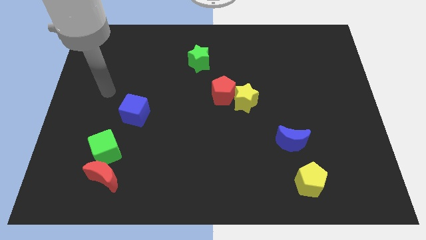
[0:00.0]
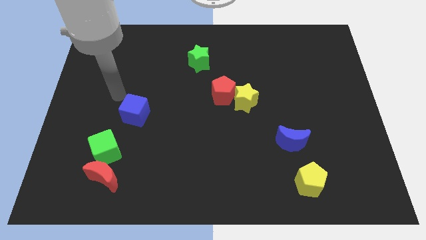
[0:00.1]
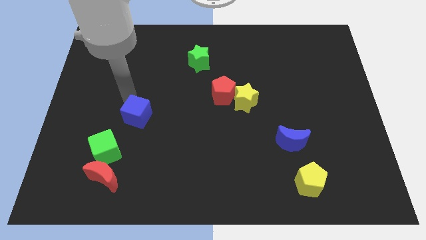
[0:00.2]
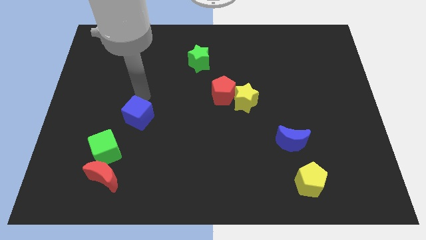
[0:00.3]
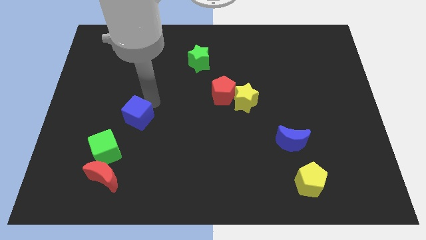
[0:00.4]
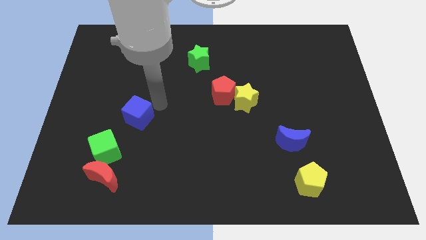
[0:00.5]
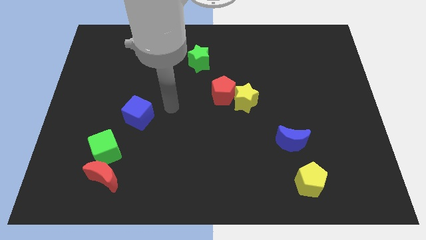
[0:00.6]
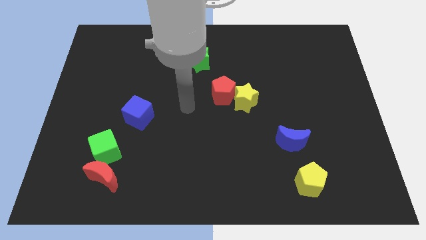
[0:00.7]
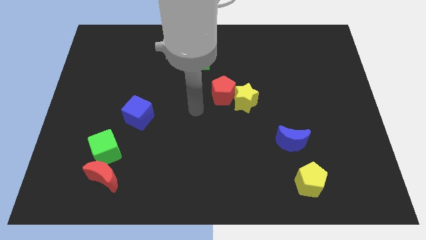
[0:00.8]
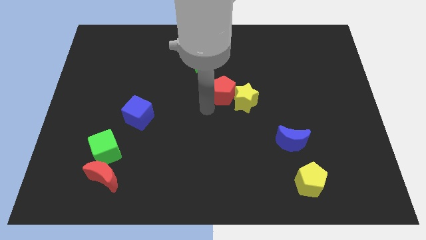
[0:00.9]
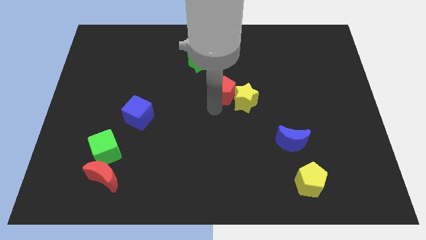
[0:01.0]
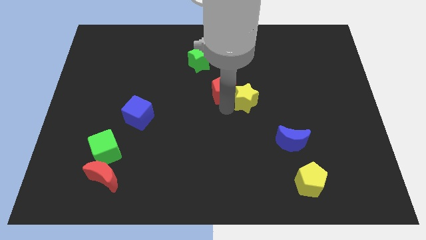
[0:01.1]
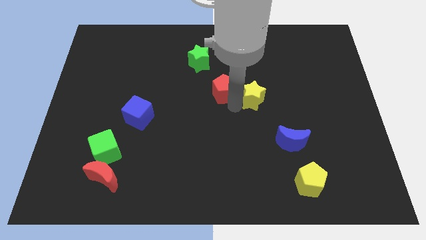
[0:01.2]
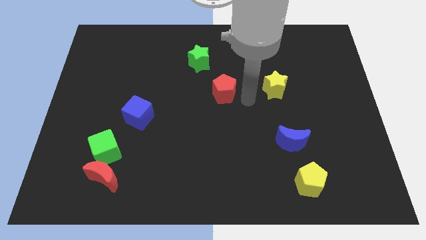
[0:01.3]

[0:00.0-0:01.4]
separate the red pentagon from the yellow star

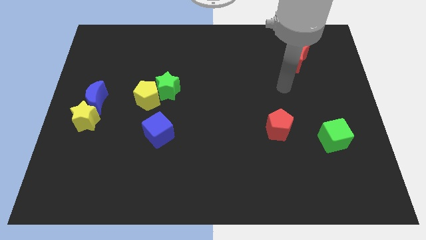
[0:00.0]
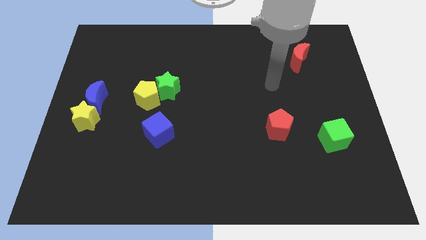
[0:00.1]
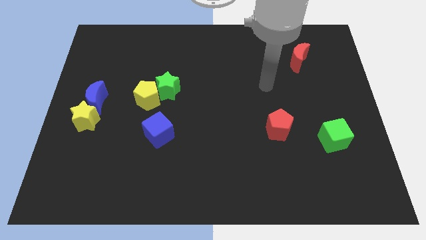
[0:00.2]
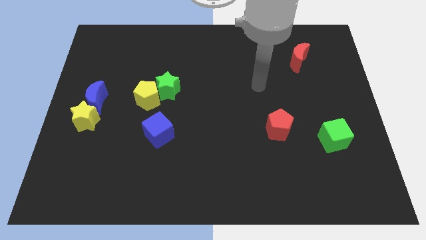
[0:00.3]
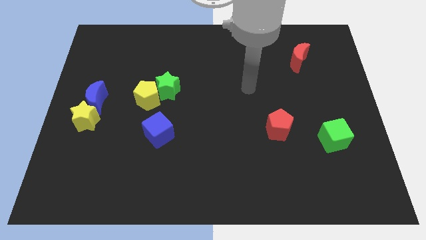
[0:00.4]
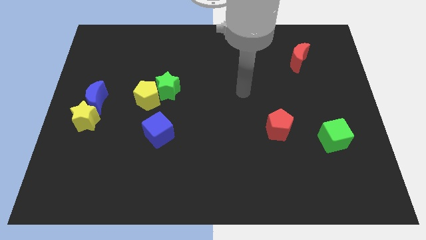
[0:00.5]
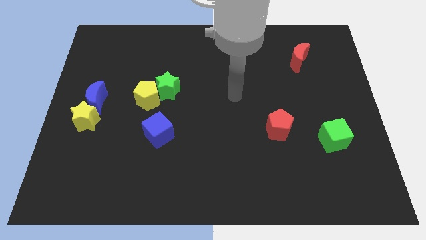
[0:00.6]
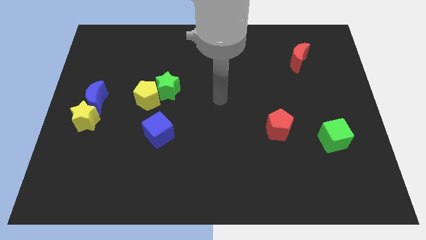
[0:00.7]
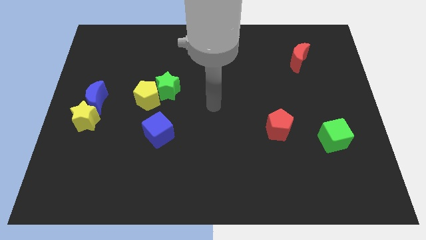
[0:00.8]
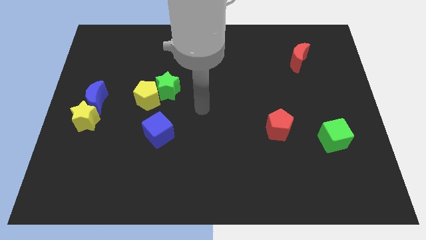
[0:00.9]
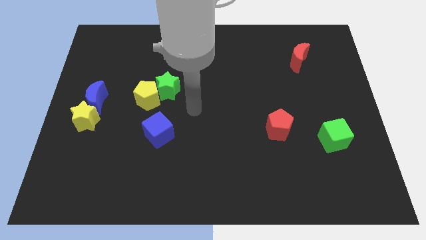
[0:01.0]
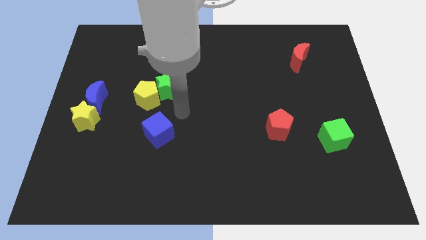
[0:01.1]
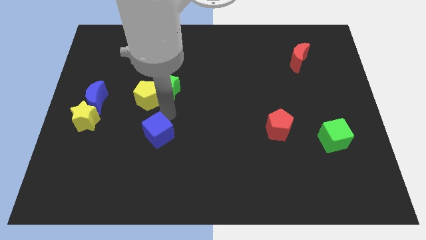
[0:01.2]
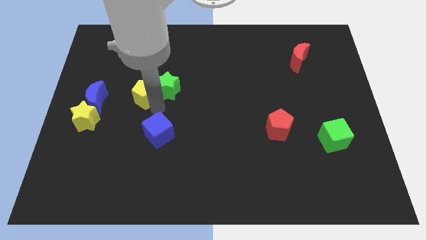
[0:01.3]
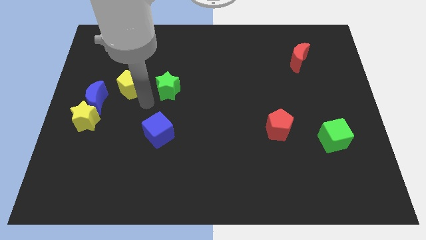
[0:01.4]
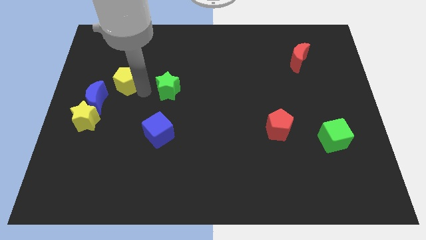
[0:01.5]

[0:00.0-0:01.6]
separate the green star from the yellow pentagon

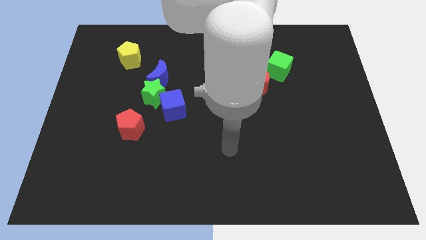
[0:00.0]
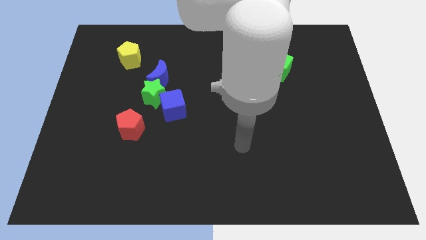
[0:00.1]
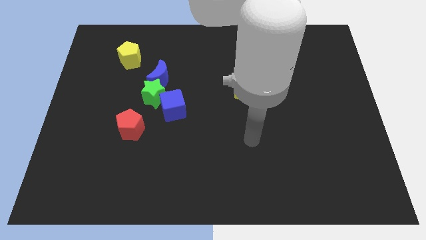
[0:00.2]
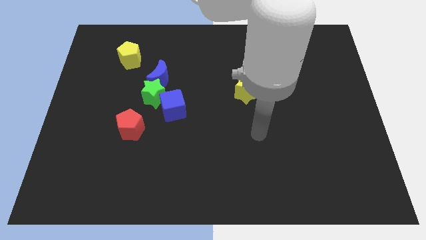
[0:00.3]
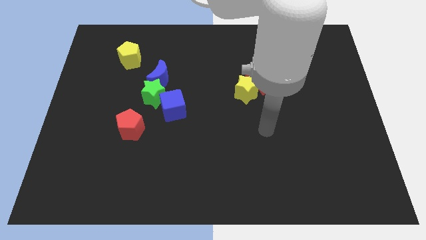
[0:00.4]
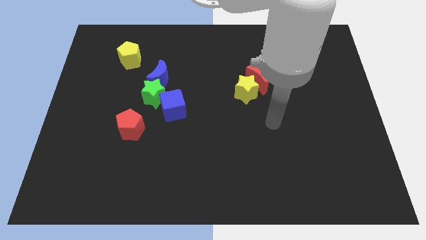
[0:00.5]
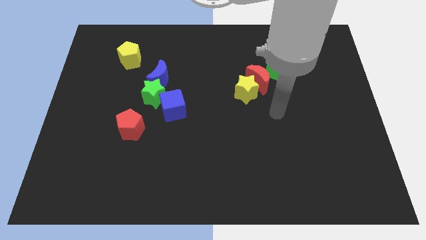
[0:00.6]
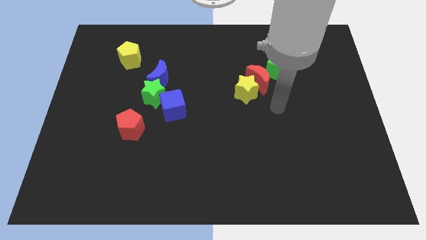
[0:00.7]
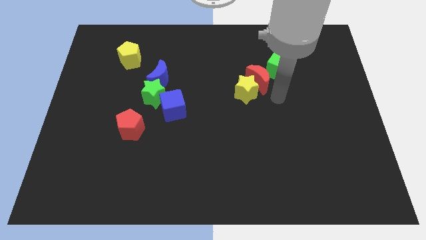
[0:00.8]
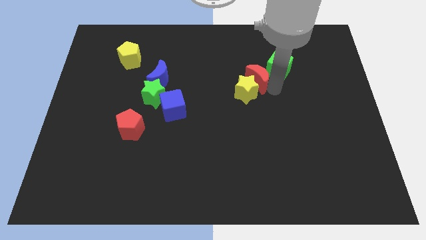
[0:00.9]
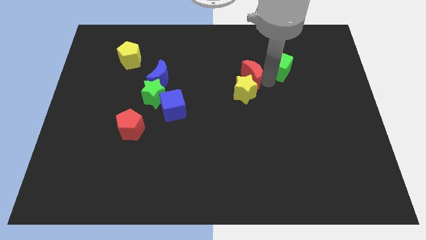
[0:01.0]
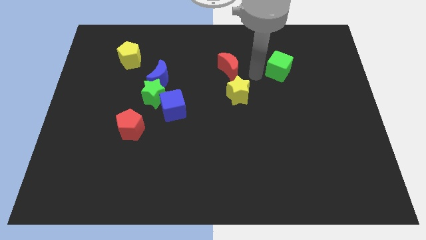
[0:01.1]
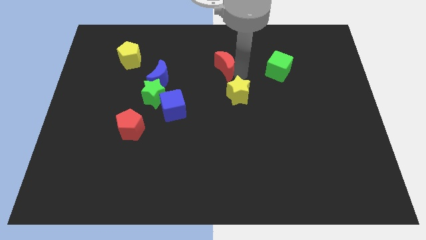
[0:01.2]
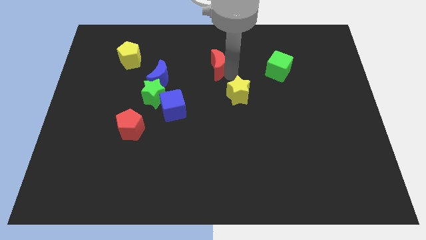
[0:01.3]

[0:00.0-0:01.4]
pull the yellow star apart from the red moon

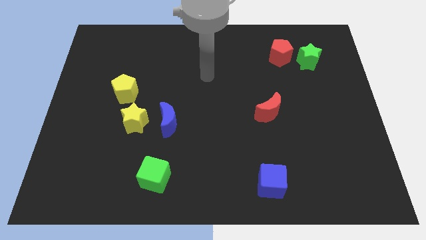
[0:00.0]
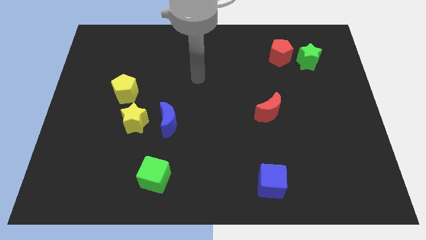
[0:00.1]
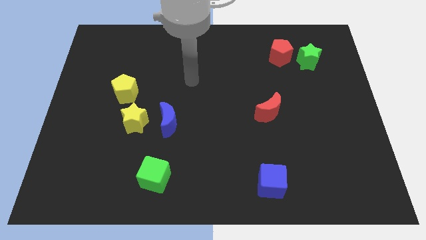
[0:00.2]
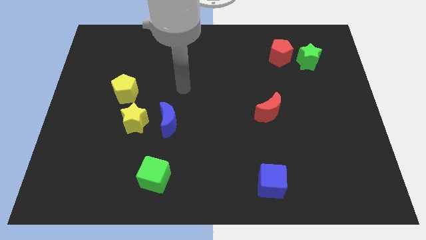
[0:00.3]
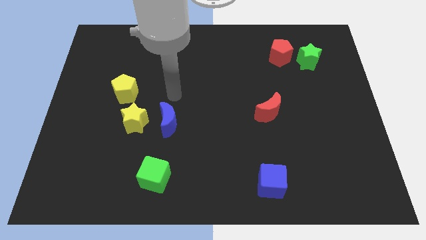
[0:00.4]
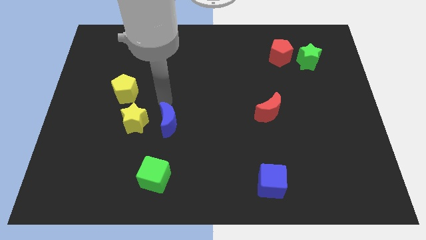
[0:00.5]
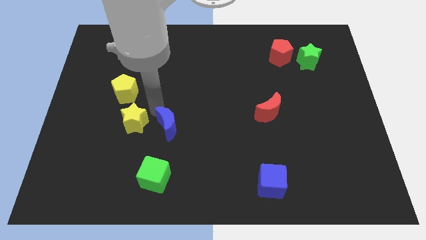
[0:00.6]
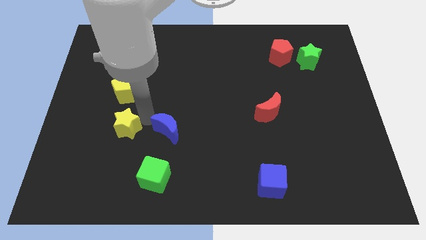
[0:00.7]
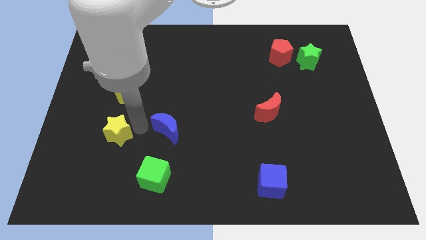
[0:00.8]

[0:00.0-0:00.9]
pull the blue moon apart from the yellow star

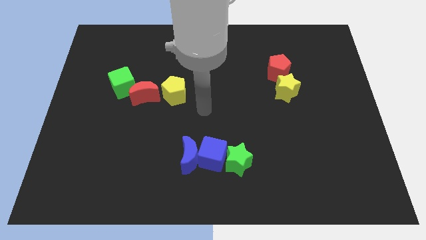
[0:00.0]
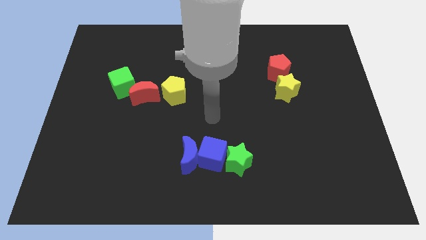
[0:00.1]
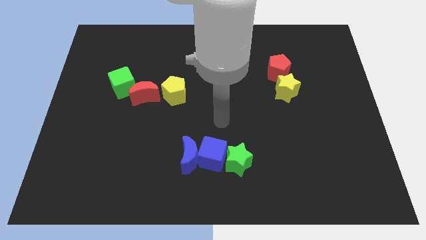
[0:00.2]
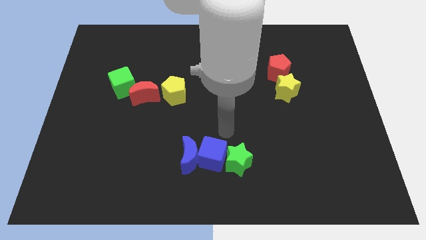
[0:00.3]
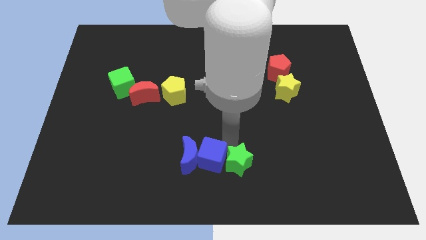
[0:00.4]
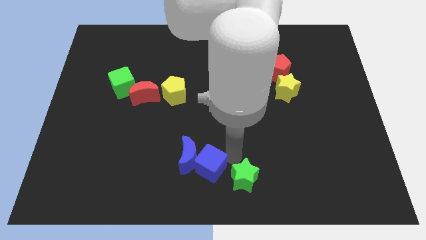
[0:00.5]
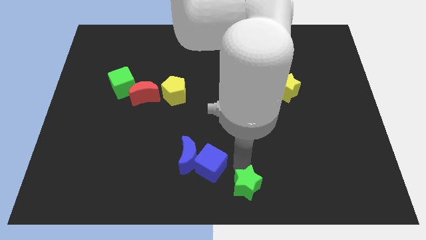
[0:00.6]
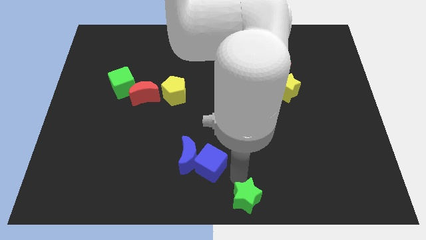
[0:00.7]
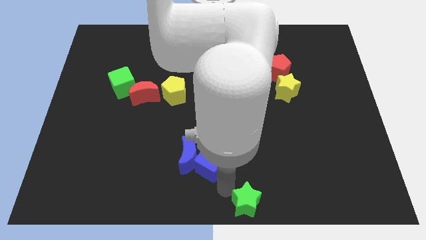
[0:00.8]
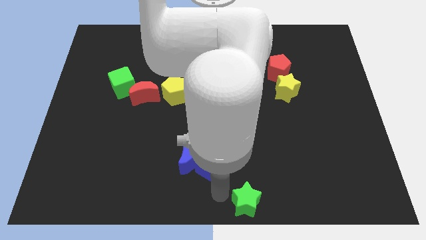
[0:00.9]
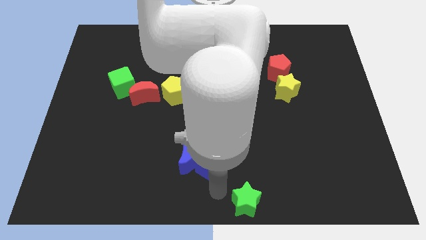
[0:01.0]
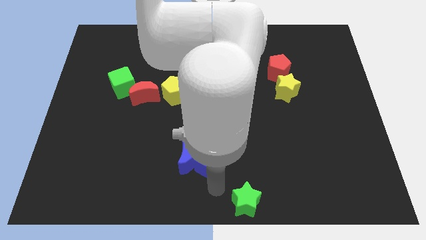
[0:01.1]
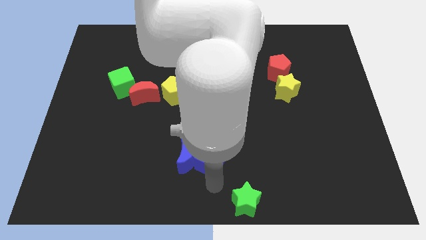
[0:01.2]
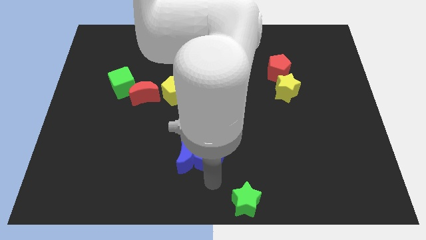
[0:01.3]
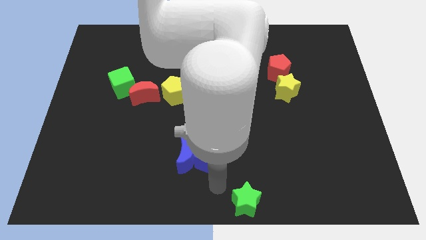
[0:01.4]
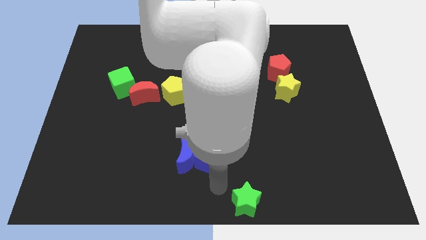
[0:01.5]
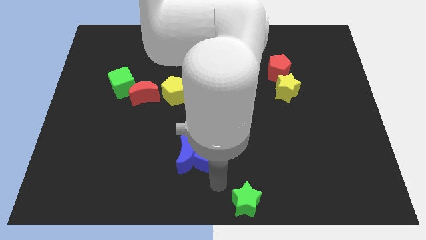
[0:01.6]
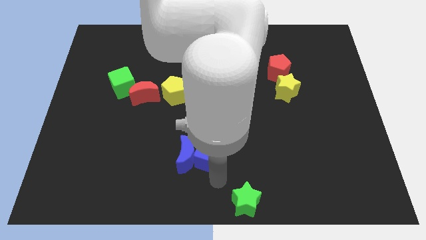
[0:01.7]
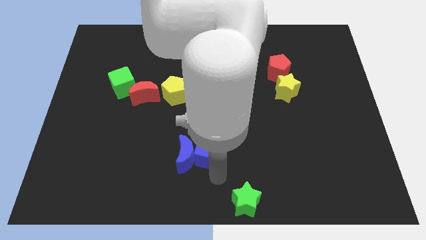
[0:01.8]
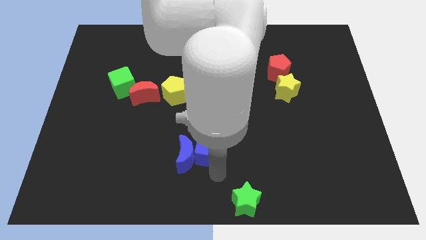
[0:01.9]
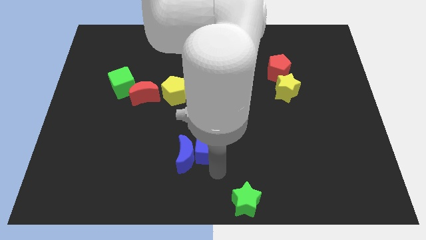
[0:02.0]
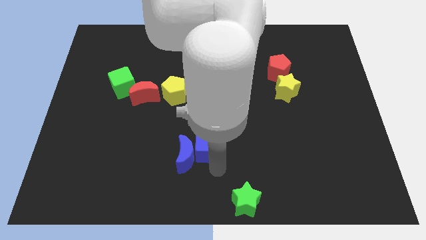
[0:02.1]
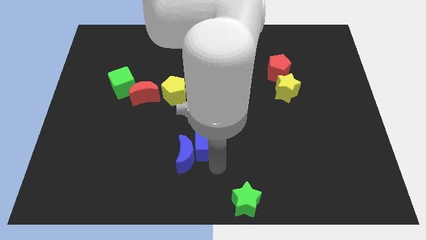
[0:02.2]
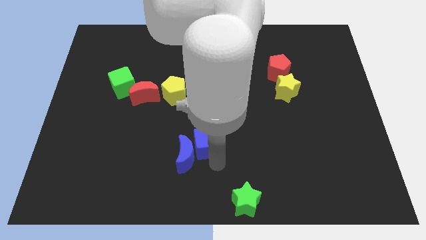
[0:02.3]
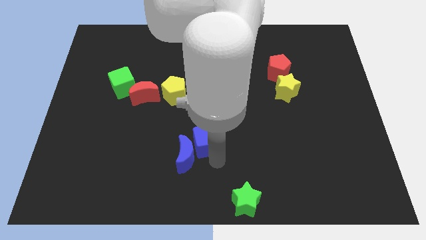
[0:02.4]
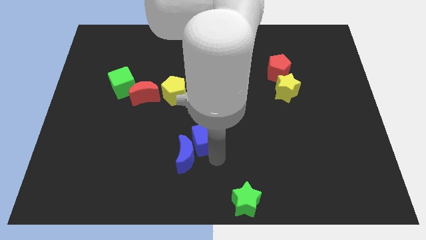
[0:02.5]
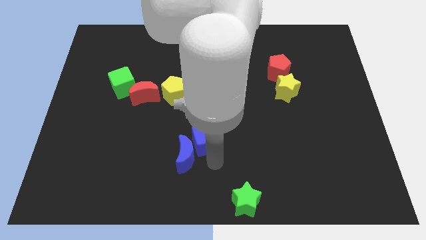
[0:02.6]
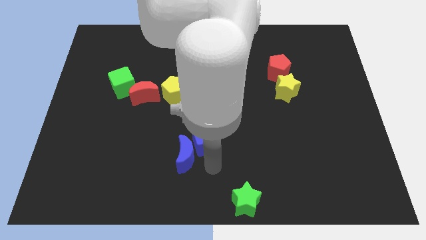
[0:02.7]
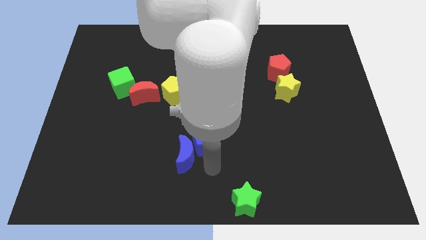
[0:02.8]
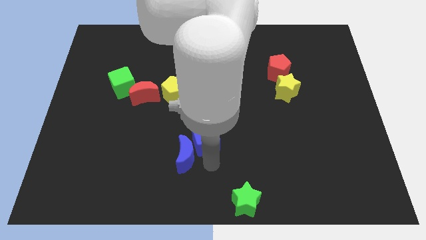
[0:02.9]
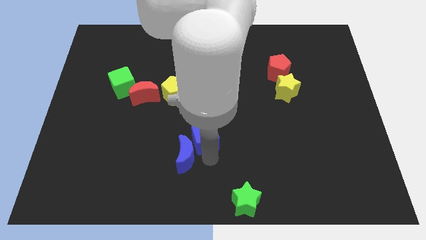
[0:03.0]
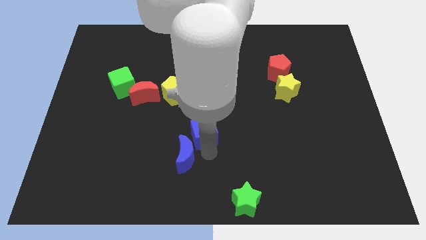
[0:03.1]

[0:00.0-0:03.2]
pull the blue cube apart from the blue moon and green star

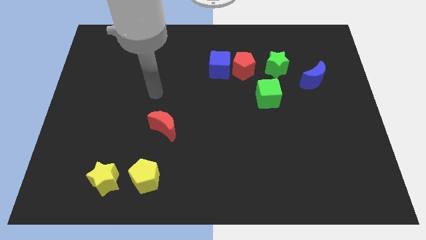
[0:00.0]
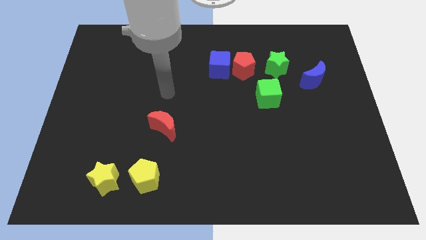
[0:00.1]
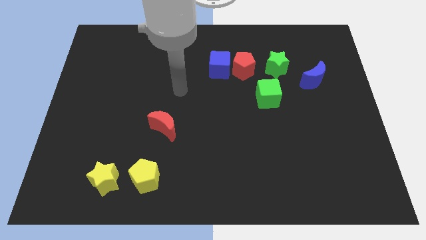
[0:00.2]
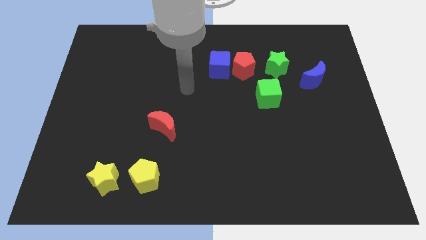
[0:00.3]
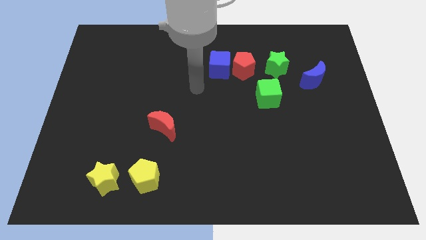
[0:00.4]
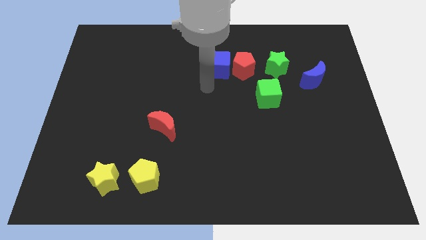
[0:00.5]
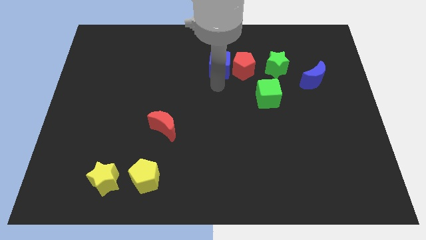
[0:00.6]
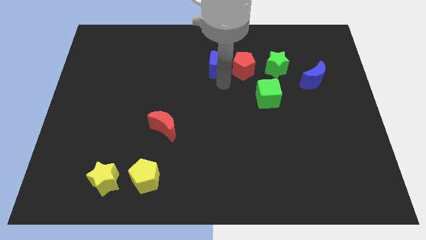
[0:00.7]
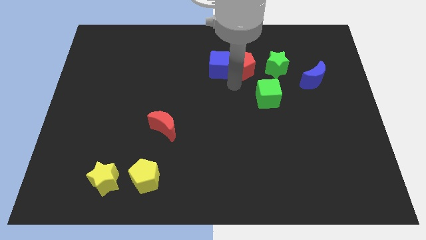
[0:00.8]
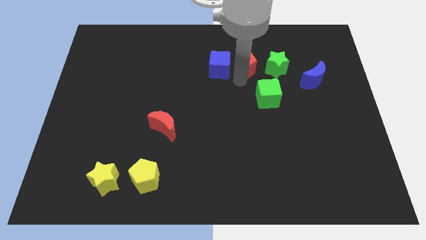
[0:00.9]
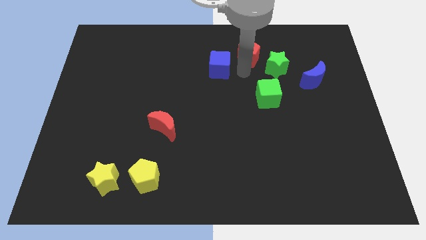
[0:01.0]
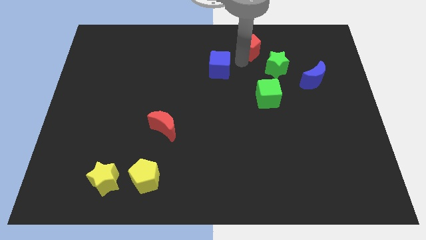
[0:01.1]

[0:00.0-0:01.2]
move the blue cube away from the red pentagon
